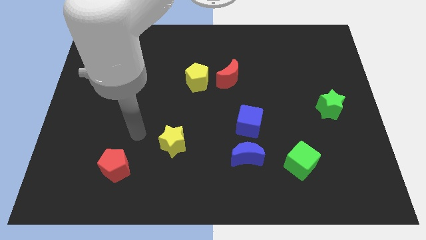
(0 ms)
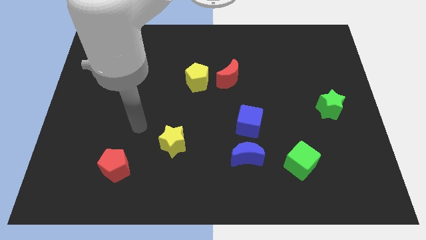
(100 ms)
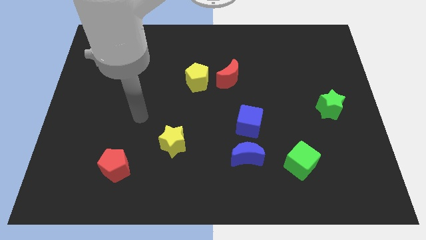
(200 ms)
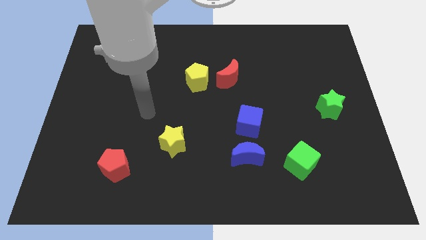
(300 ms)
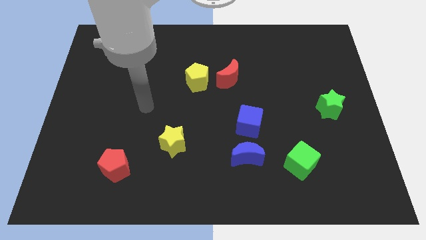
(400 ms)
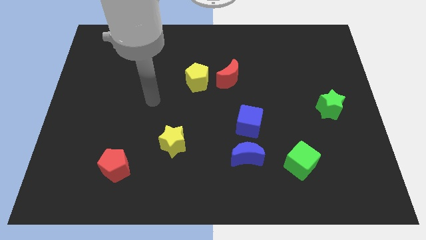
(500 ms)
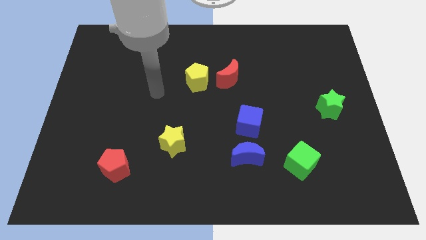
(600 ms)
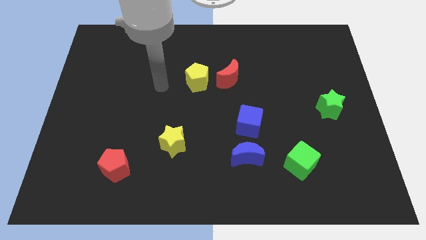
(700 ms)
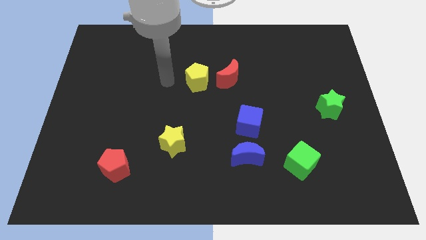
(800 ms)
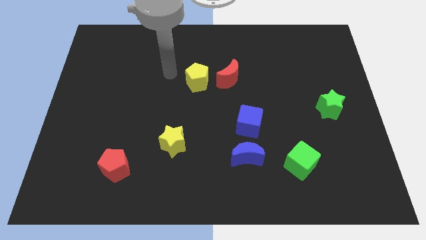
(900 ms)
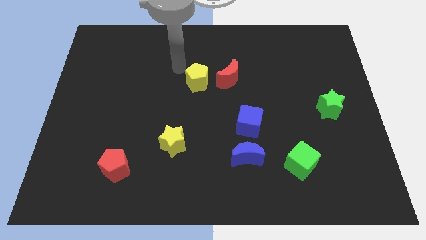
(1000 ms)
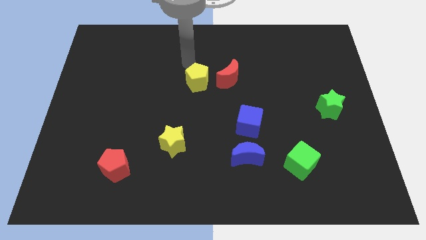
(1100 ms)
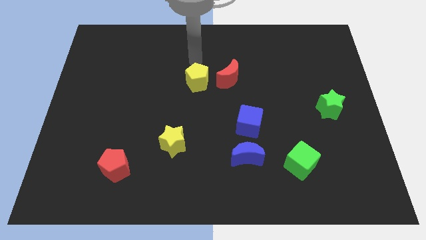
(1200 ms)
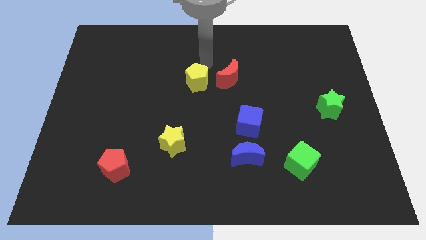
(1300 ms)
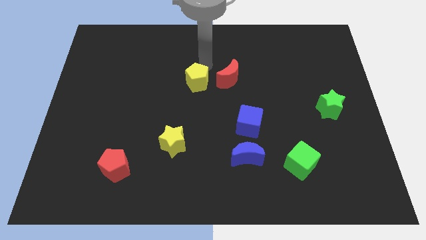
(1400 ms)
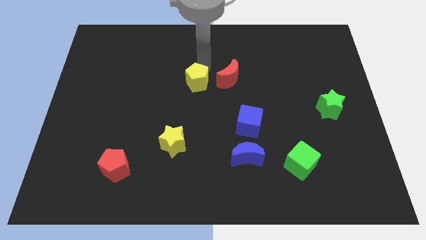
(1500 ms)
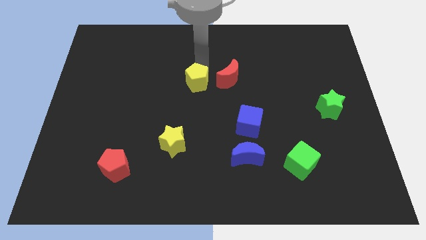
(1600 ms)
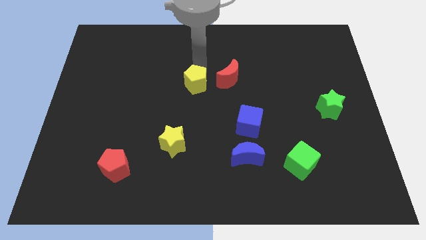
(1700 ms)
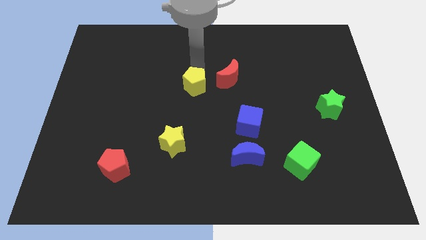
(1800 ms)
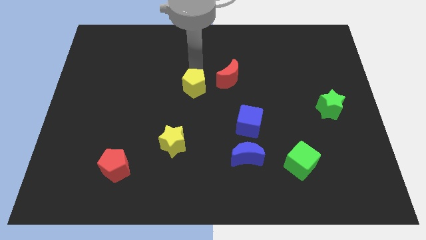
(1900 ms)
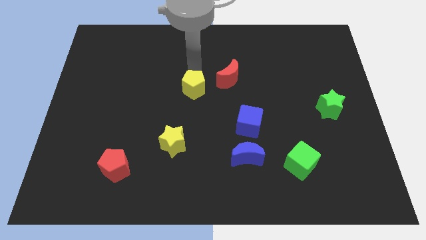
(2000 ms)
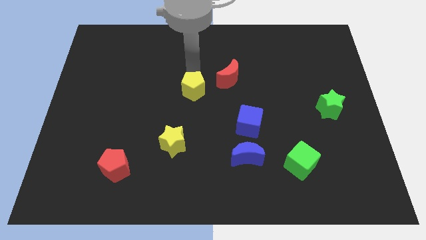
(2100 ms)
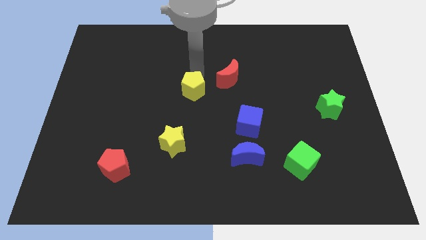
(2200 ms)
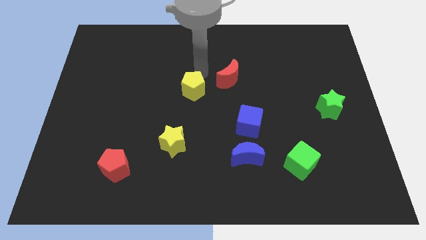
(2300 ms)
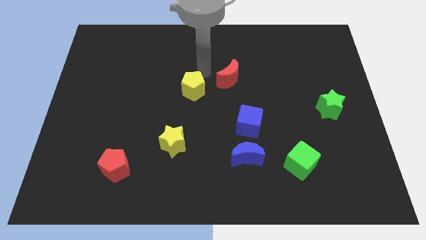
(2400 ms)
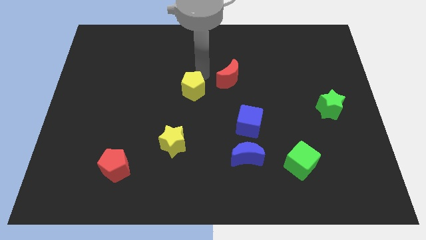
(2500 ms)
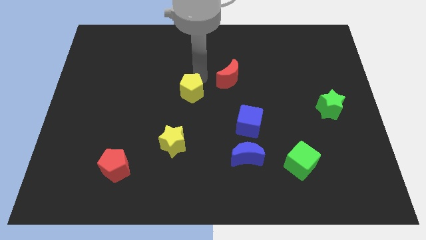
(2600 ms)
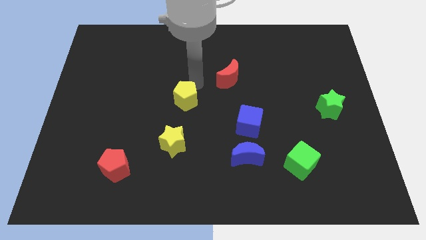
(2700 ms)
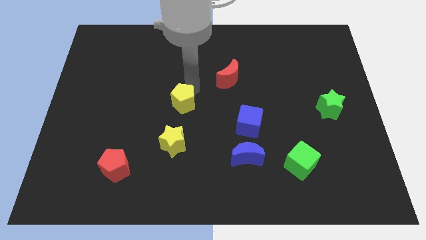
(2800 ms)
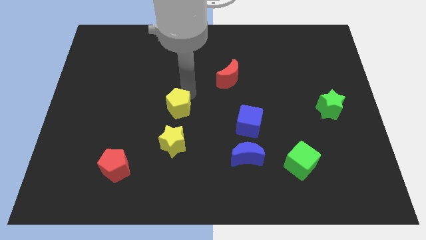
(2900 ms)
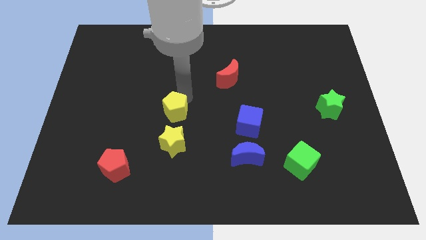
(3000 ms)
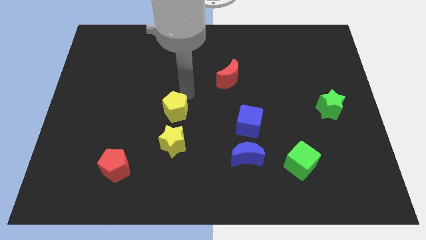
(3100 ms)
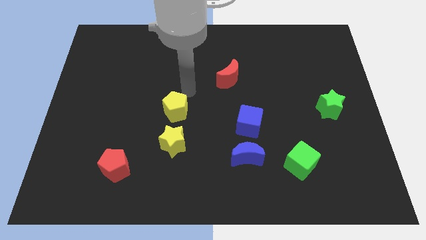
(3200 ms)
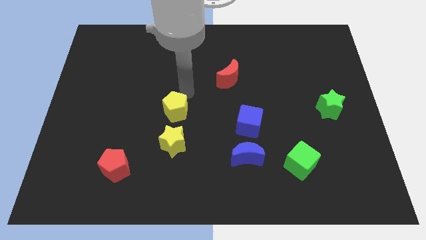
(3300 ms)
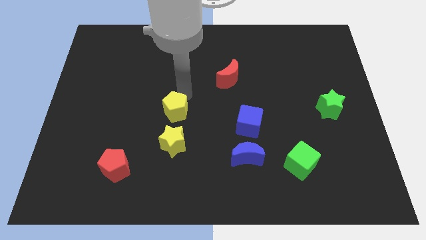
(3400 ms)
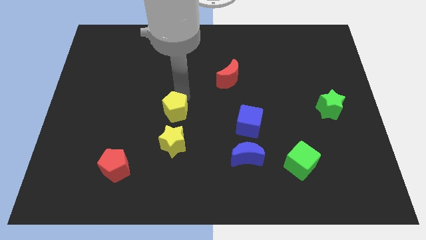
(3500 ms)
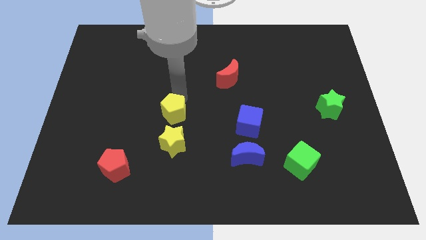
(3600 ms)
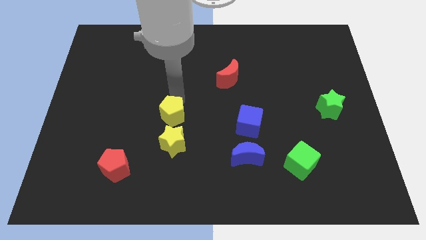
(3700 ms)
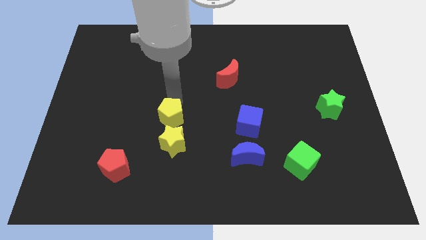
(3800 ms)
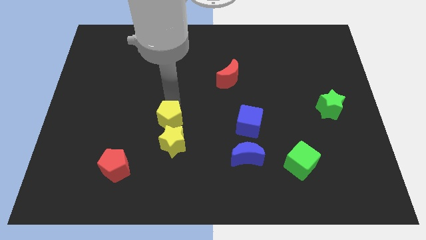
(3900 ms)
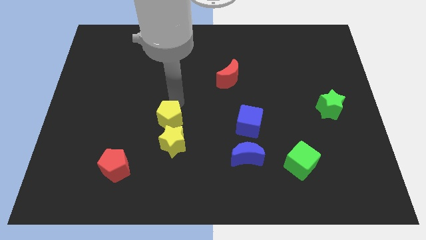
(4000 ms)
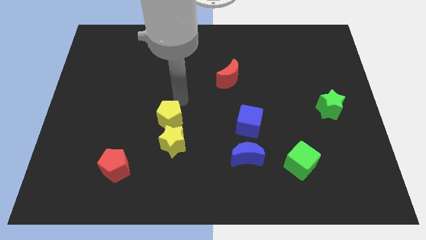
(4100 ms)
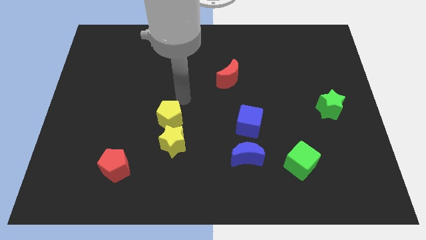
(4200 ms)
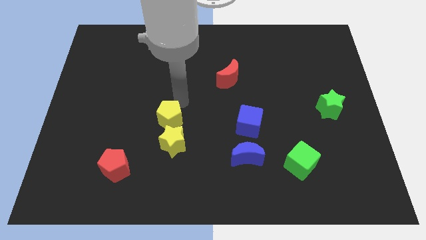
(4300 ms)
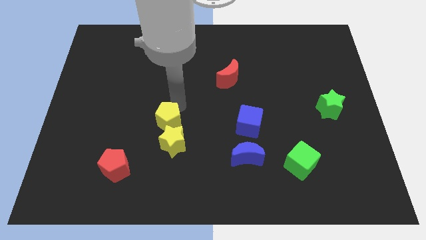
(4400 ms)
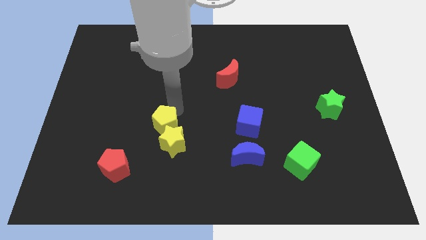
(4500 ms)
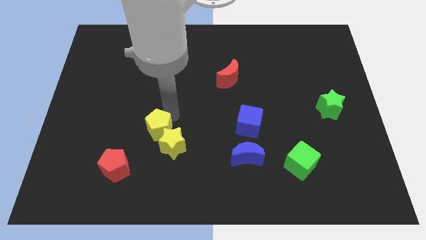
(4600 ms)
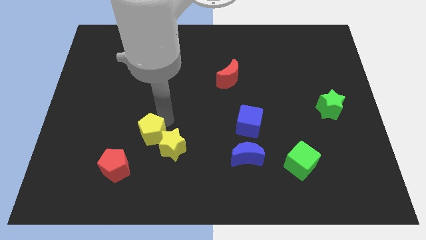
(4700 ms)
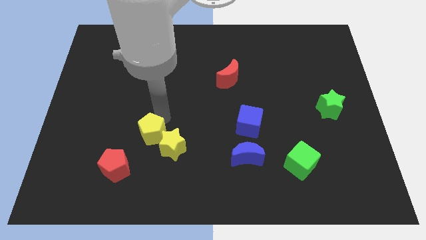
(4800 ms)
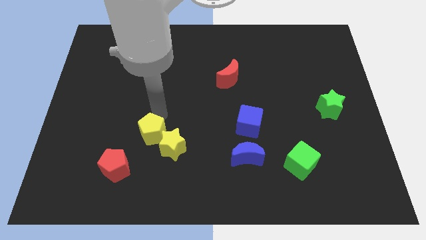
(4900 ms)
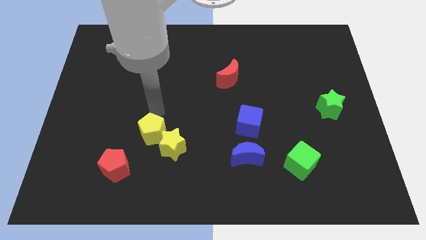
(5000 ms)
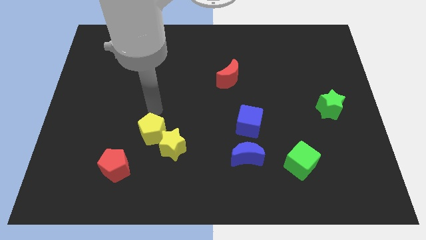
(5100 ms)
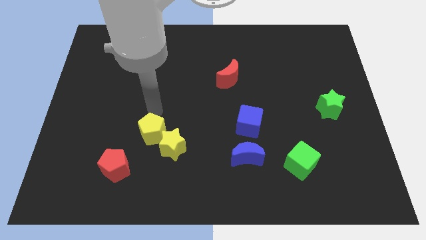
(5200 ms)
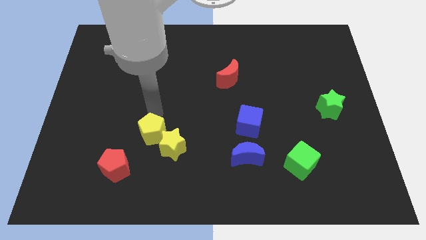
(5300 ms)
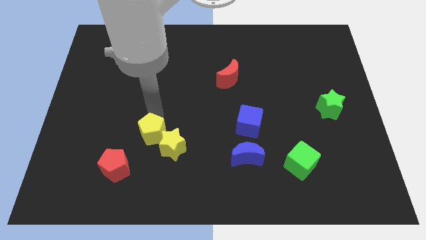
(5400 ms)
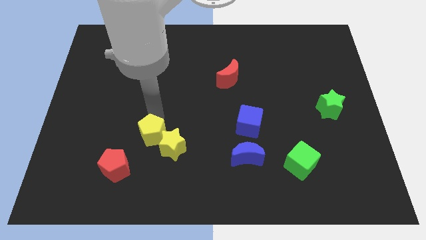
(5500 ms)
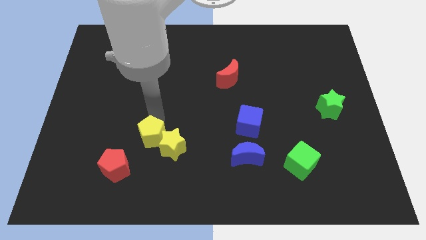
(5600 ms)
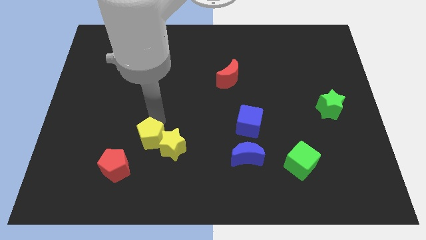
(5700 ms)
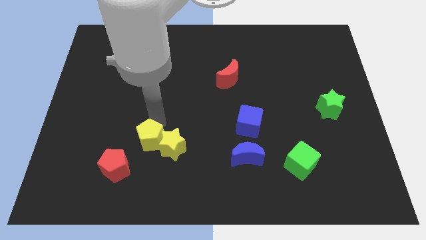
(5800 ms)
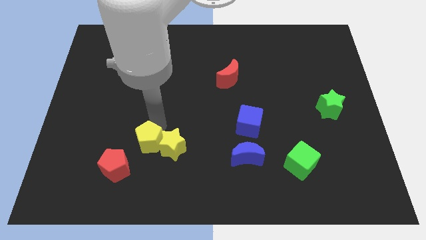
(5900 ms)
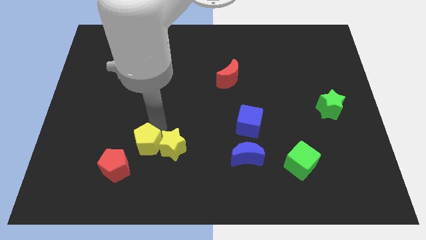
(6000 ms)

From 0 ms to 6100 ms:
put the yellow pentagon to the bottom left of the yellow star

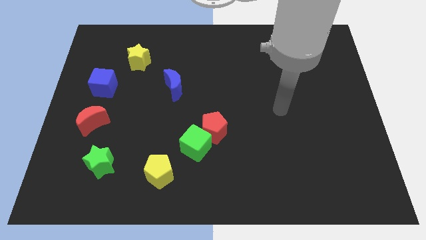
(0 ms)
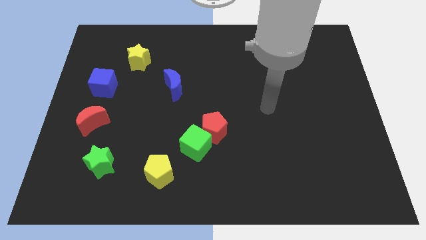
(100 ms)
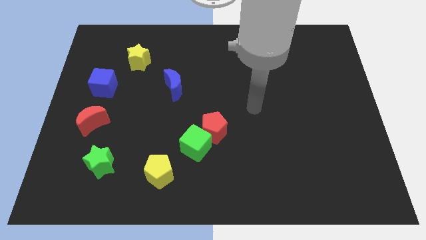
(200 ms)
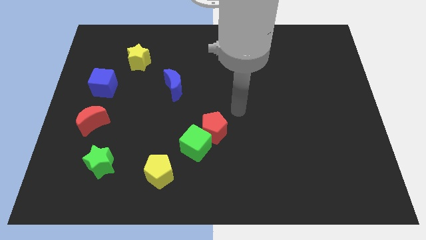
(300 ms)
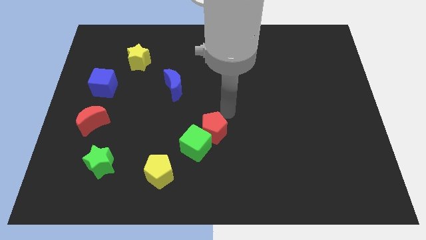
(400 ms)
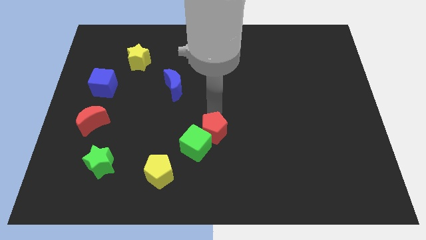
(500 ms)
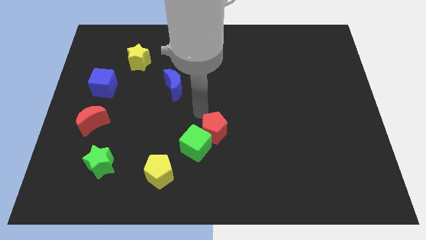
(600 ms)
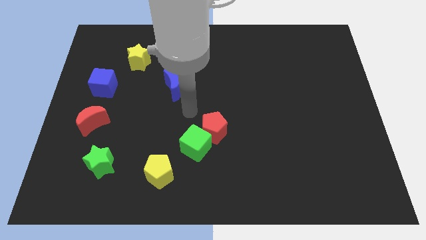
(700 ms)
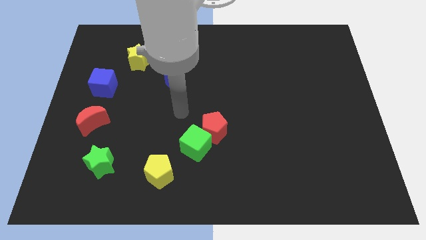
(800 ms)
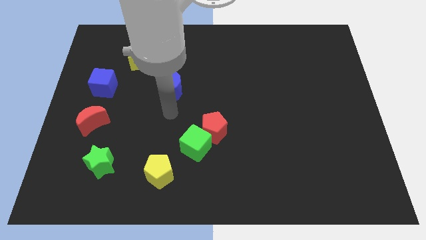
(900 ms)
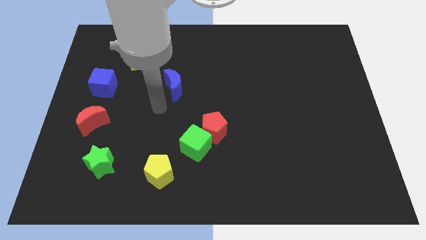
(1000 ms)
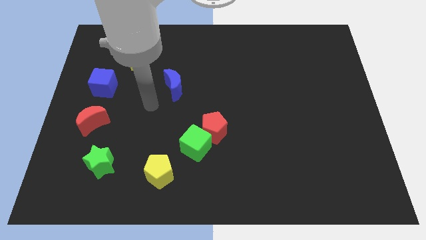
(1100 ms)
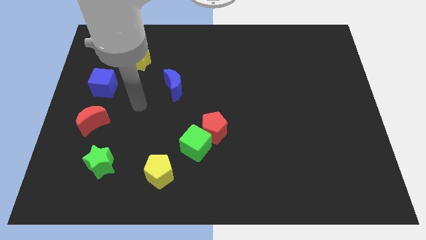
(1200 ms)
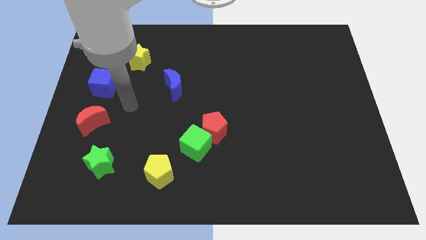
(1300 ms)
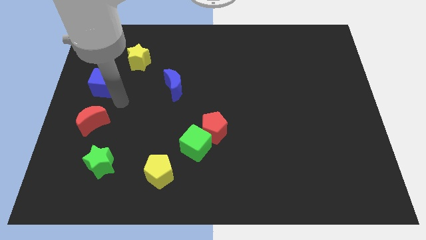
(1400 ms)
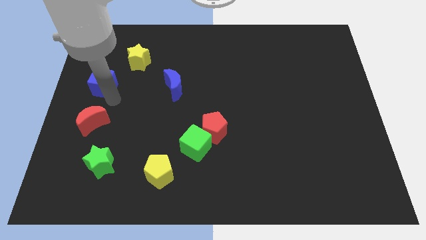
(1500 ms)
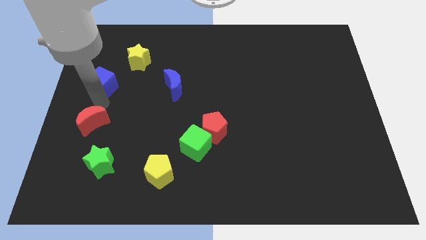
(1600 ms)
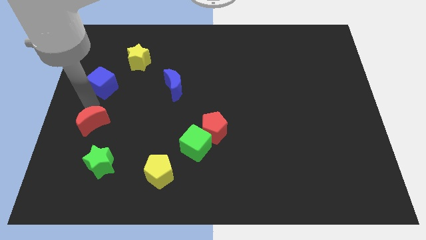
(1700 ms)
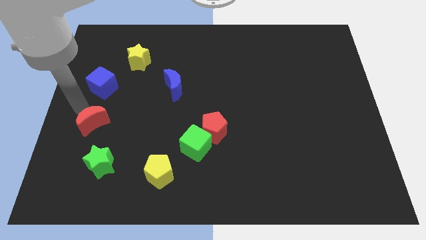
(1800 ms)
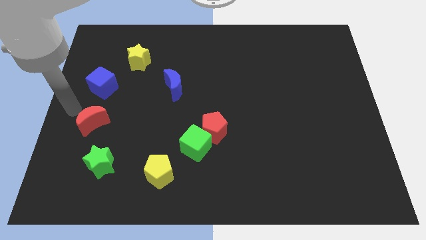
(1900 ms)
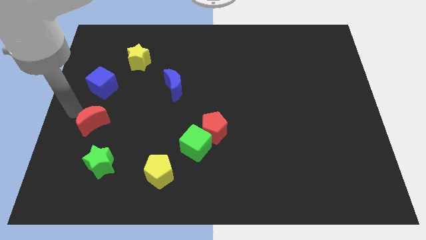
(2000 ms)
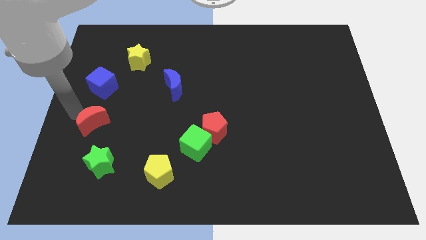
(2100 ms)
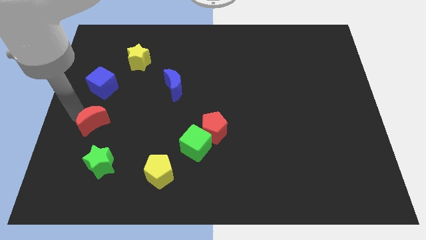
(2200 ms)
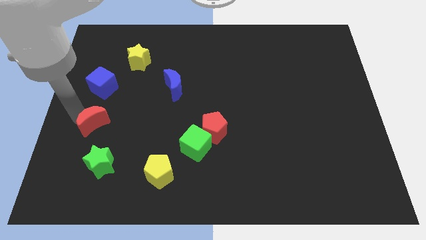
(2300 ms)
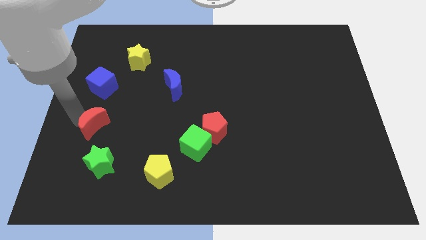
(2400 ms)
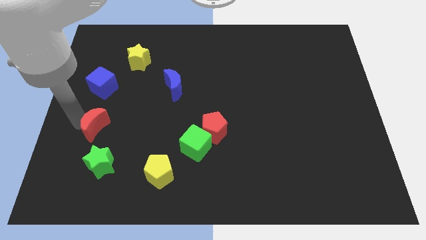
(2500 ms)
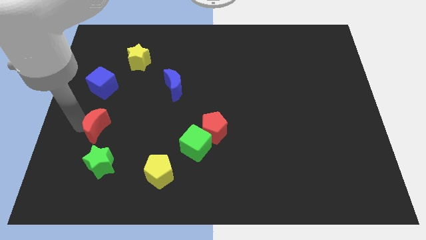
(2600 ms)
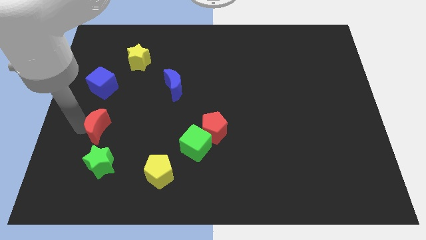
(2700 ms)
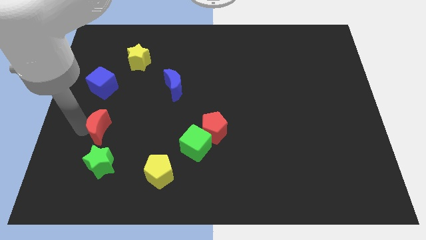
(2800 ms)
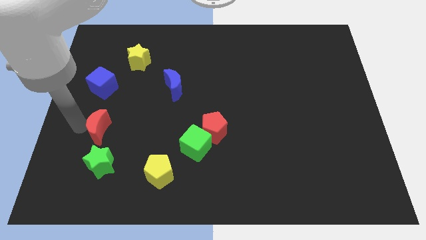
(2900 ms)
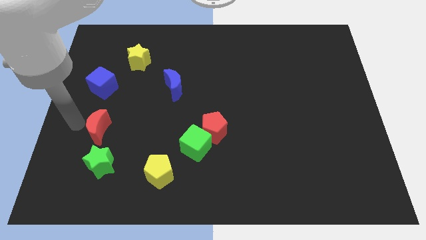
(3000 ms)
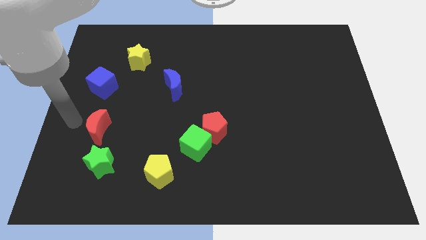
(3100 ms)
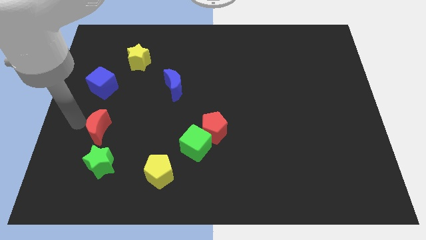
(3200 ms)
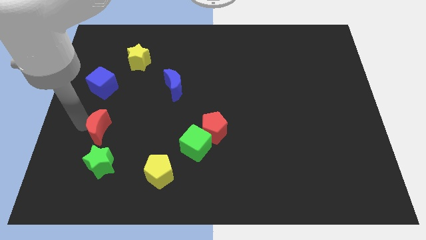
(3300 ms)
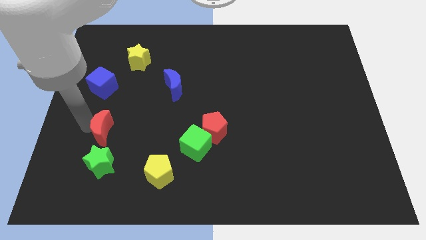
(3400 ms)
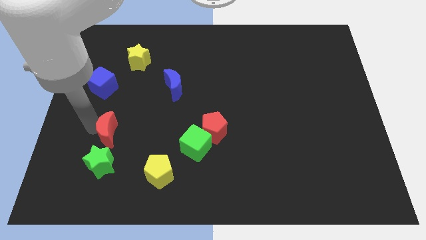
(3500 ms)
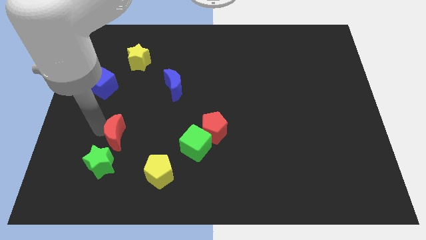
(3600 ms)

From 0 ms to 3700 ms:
put the red moon diagonally up and to the right of the green star
